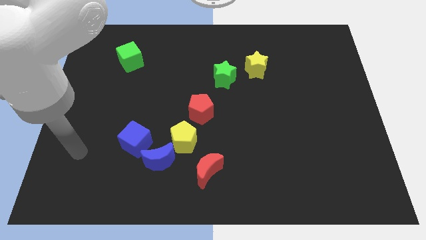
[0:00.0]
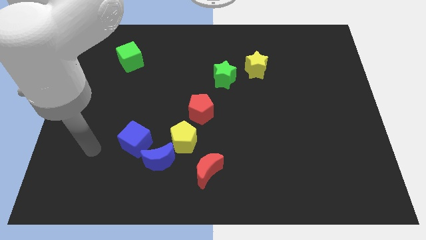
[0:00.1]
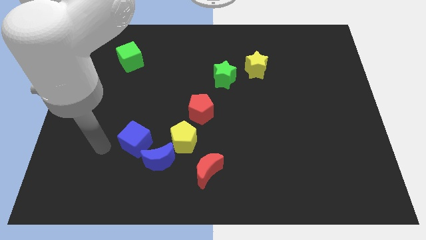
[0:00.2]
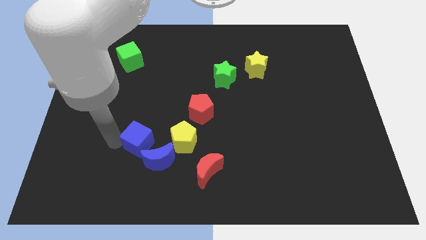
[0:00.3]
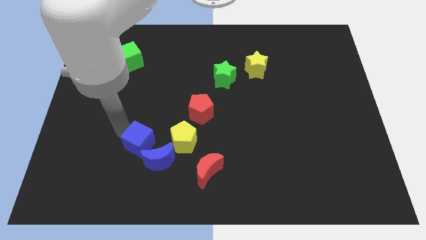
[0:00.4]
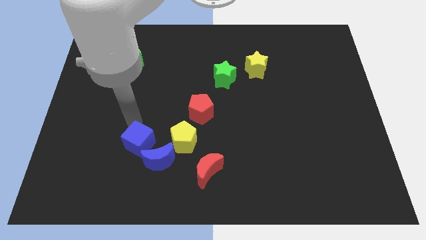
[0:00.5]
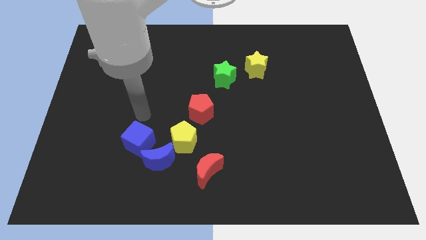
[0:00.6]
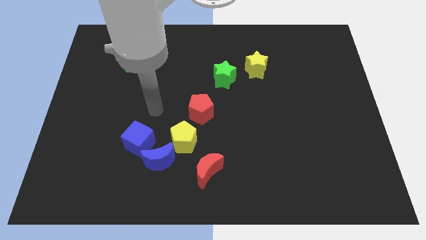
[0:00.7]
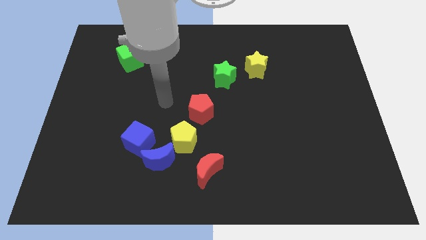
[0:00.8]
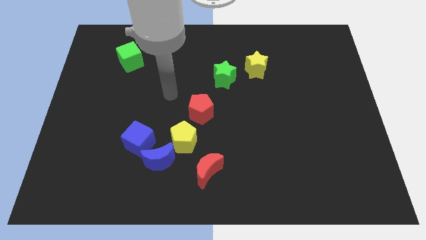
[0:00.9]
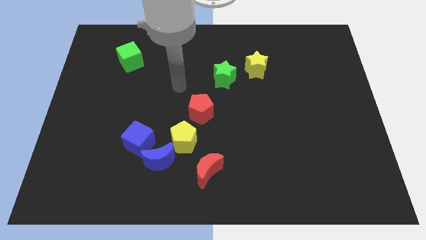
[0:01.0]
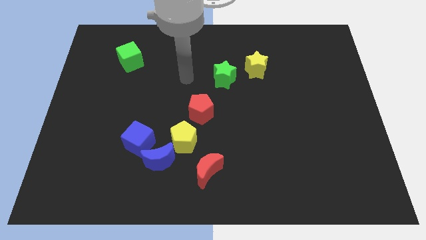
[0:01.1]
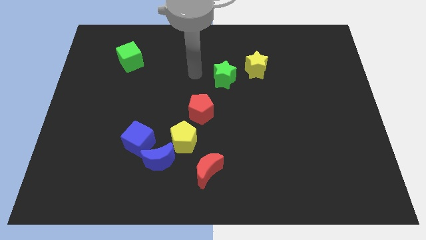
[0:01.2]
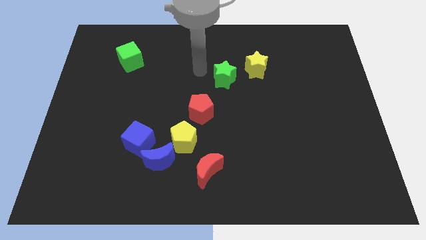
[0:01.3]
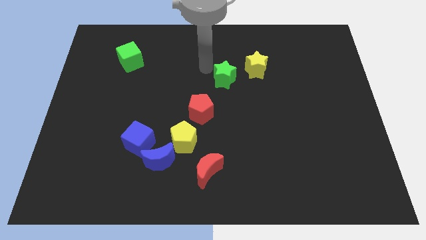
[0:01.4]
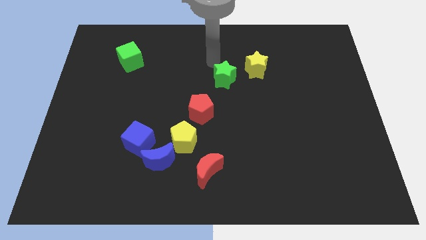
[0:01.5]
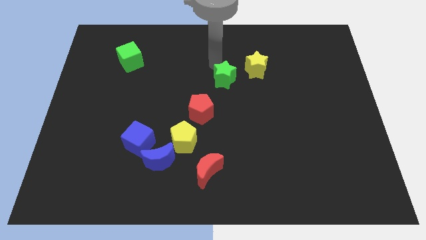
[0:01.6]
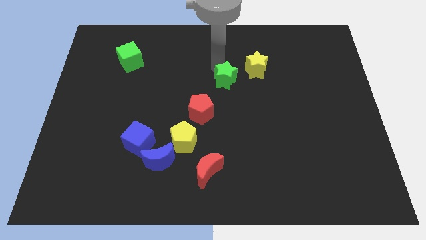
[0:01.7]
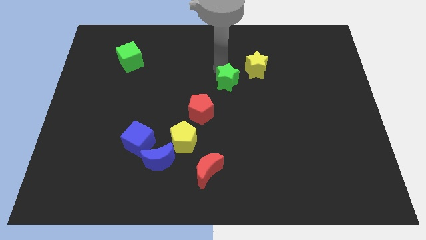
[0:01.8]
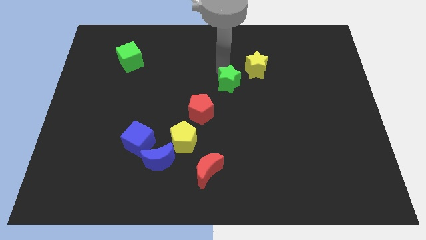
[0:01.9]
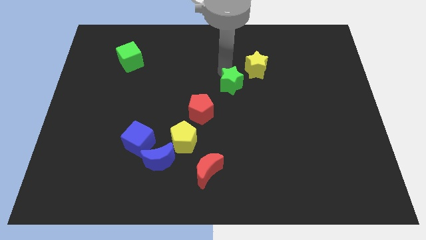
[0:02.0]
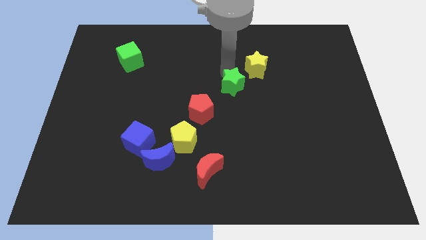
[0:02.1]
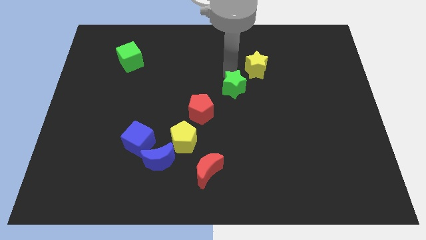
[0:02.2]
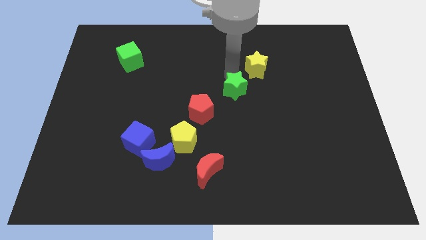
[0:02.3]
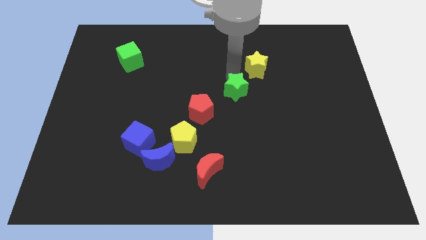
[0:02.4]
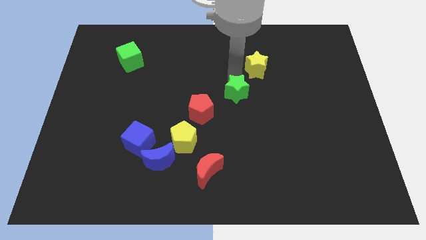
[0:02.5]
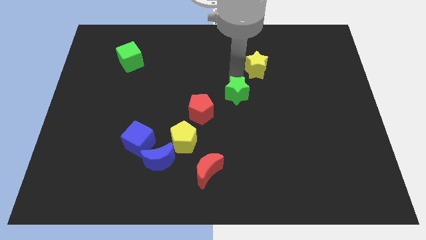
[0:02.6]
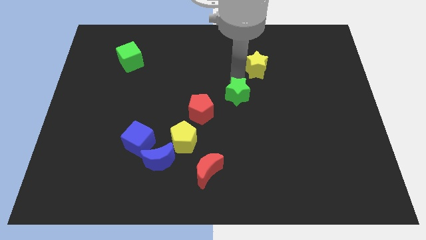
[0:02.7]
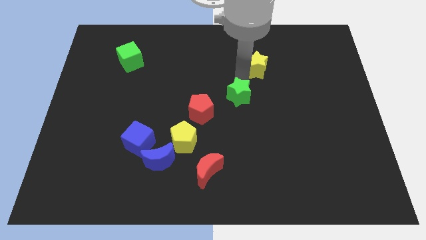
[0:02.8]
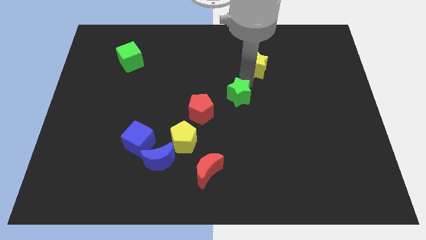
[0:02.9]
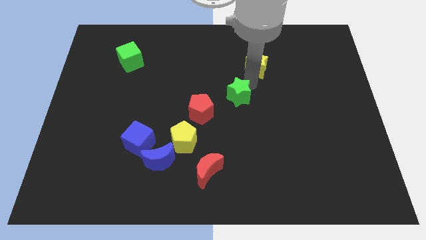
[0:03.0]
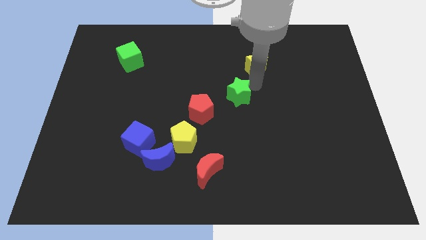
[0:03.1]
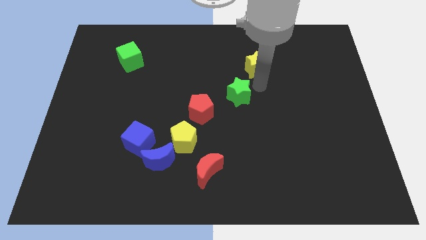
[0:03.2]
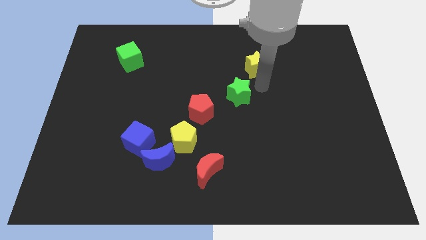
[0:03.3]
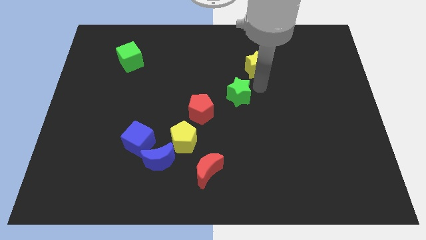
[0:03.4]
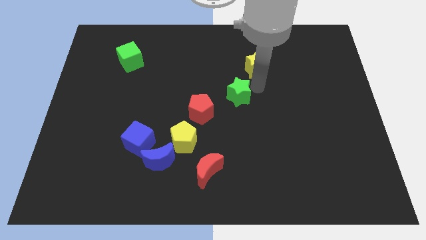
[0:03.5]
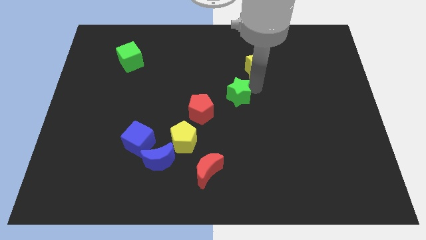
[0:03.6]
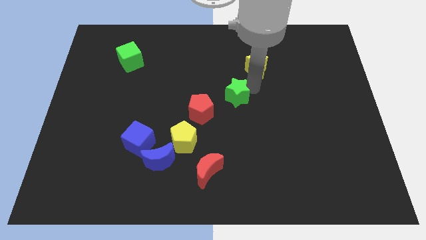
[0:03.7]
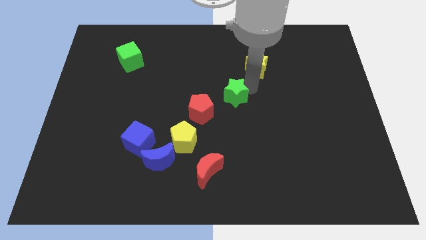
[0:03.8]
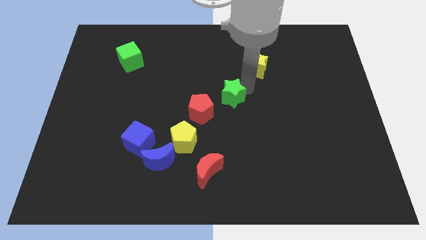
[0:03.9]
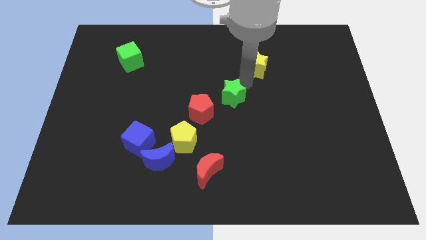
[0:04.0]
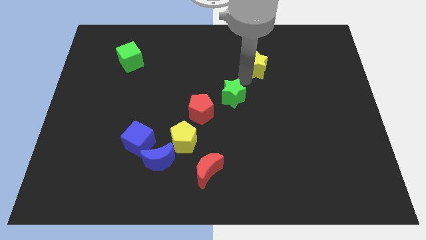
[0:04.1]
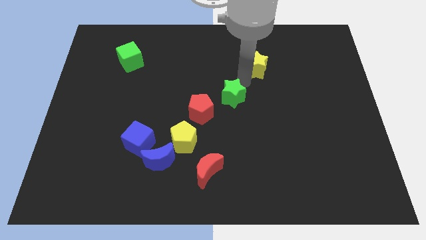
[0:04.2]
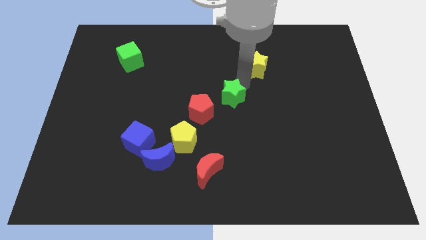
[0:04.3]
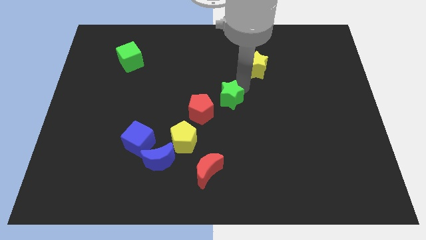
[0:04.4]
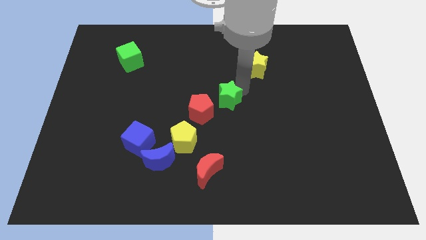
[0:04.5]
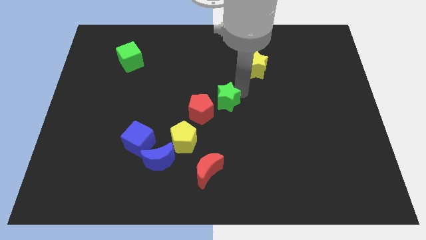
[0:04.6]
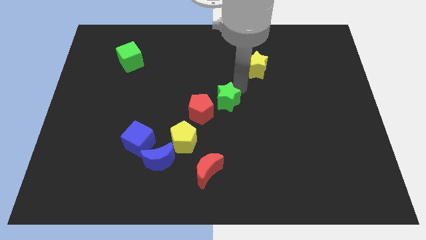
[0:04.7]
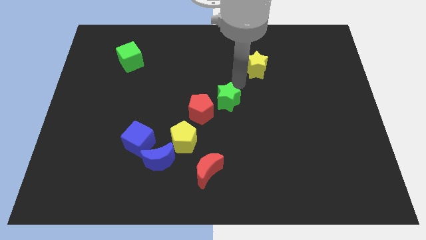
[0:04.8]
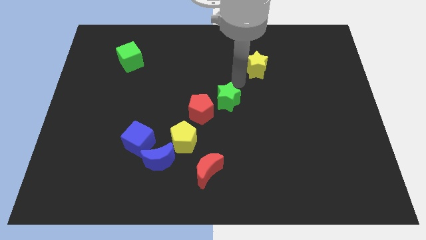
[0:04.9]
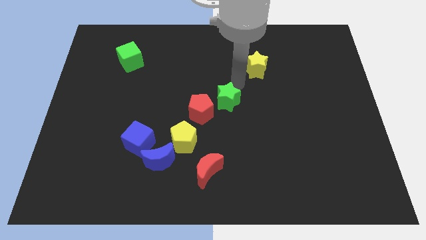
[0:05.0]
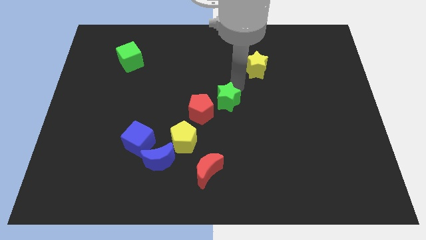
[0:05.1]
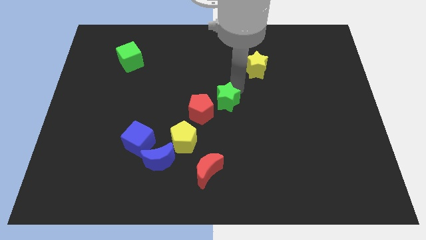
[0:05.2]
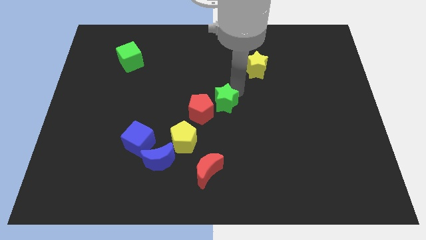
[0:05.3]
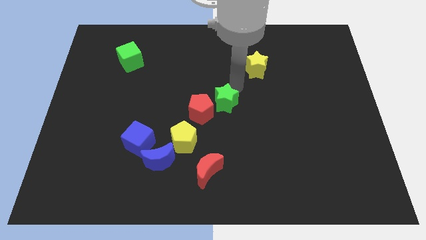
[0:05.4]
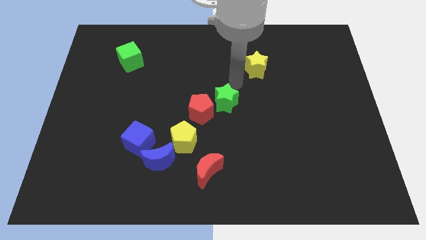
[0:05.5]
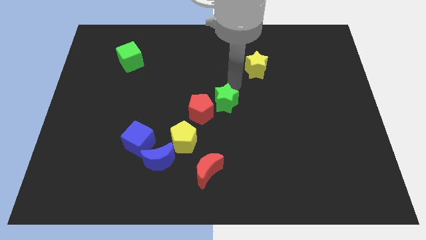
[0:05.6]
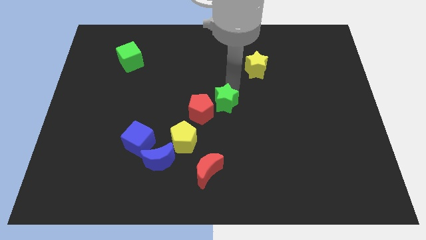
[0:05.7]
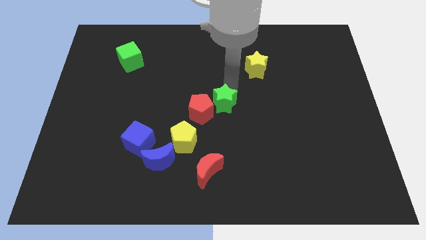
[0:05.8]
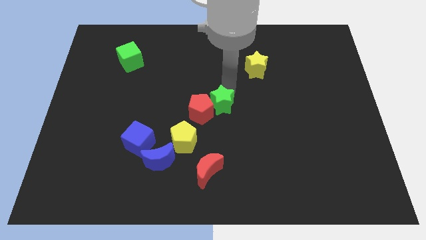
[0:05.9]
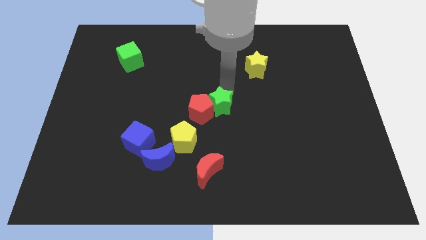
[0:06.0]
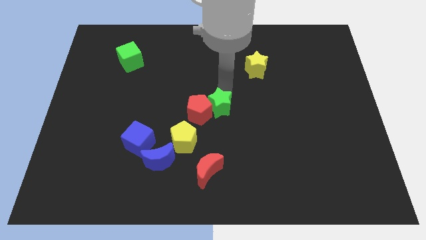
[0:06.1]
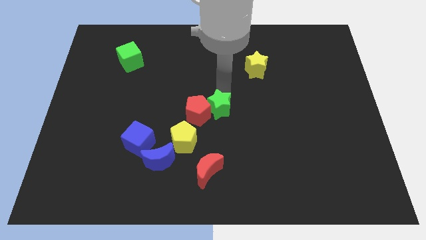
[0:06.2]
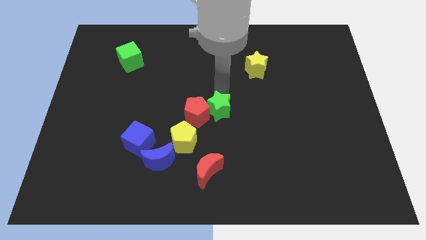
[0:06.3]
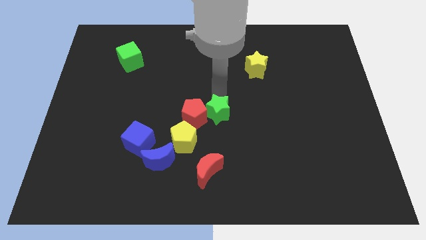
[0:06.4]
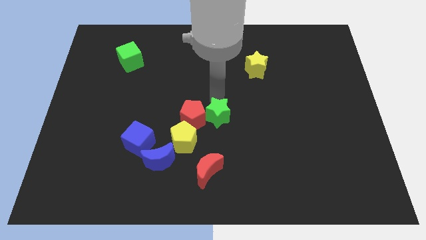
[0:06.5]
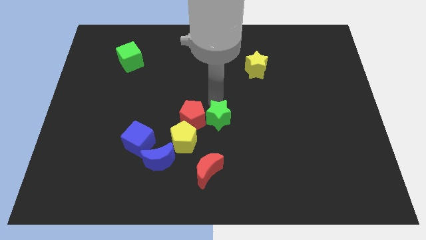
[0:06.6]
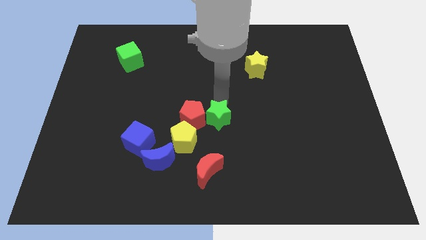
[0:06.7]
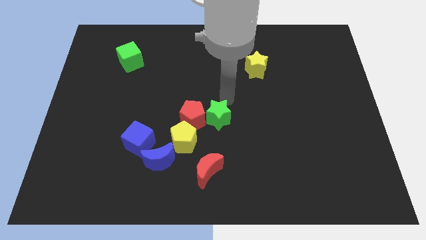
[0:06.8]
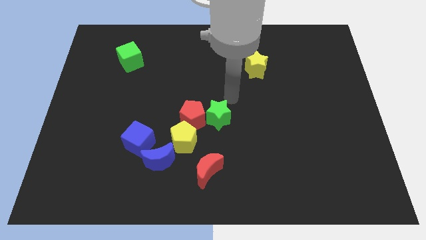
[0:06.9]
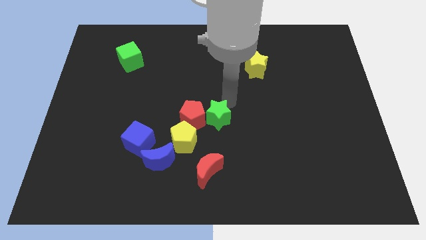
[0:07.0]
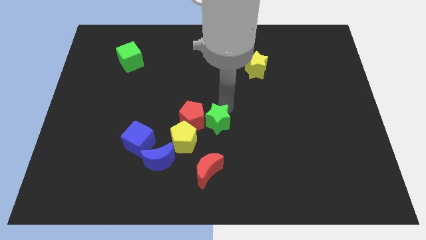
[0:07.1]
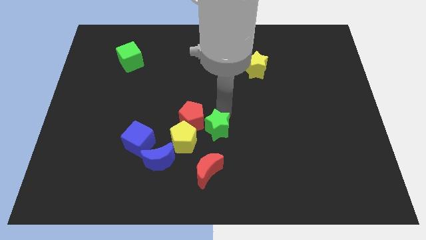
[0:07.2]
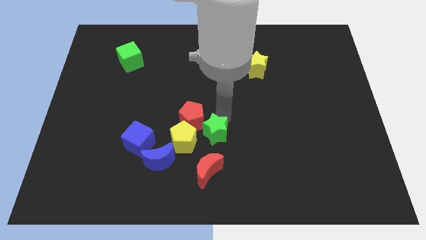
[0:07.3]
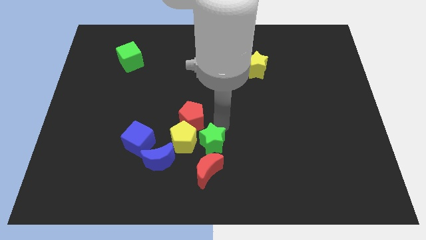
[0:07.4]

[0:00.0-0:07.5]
slide the green star to the bottom of the red pentagon
